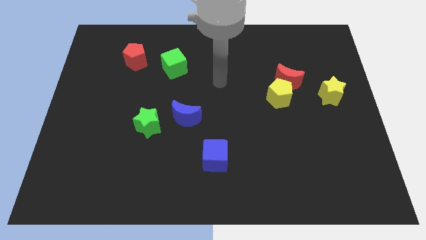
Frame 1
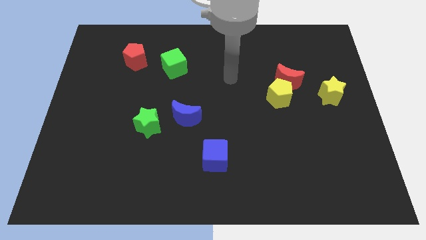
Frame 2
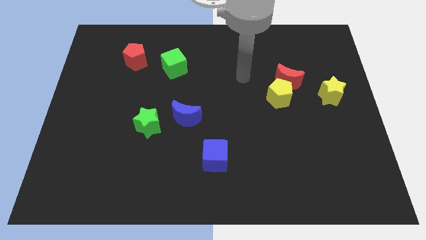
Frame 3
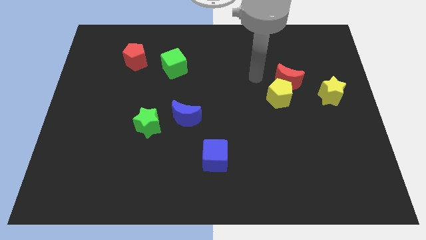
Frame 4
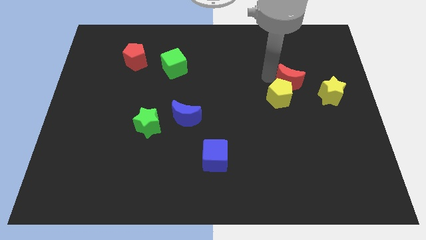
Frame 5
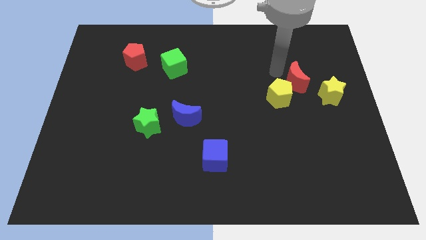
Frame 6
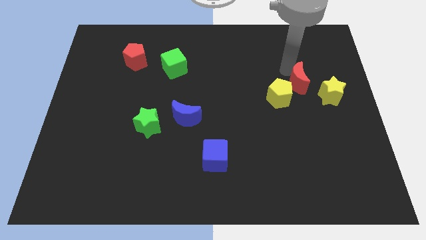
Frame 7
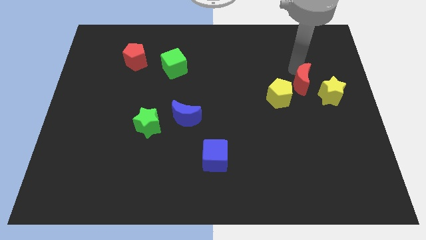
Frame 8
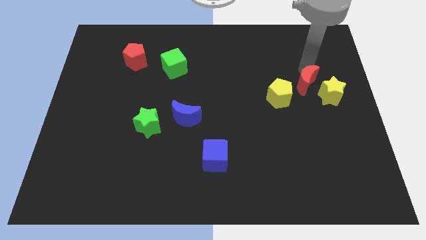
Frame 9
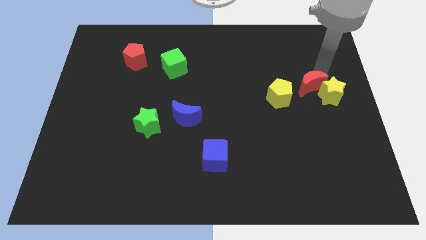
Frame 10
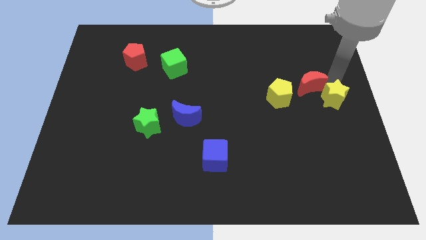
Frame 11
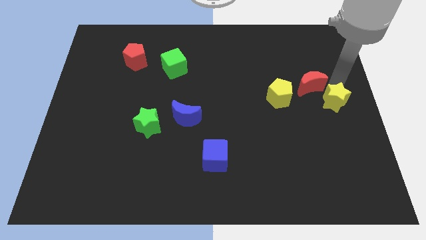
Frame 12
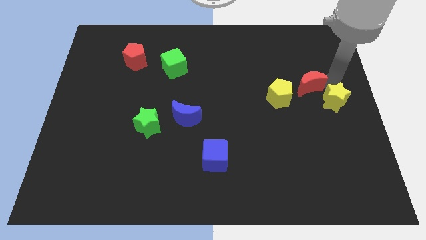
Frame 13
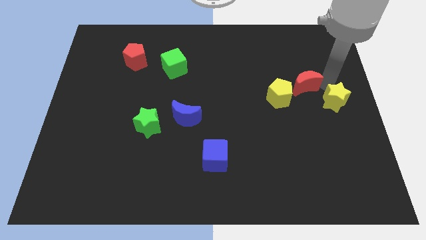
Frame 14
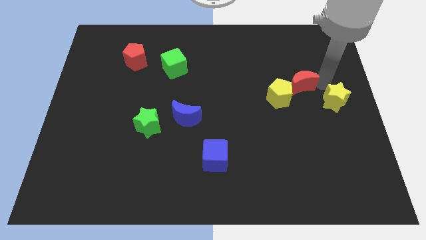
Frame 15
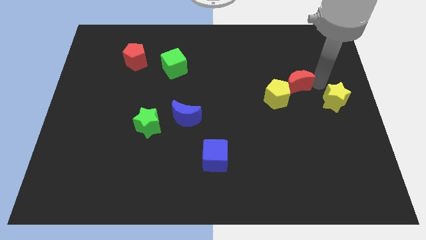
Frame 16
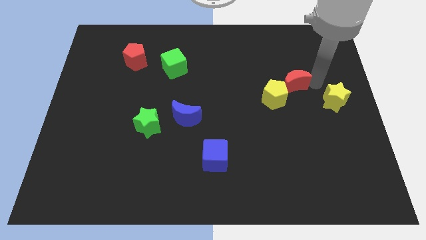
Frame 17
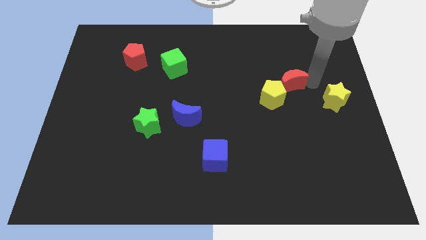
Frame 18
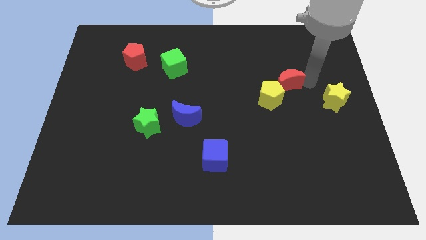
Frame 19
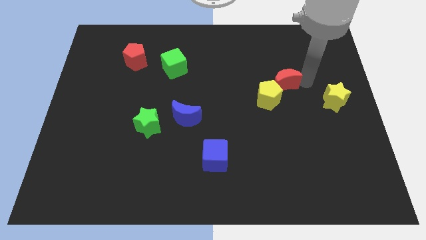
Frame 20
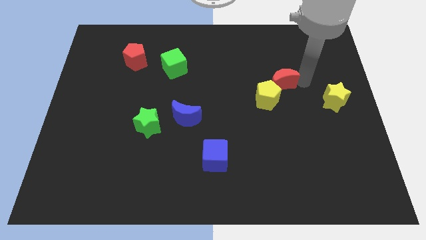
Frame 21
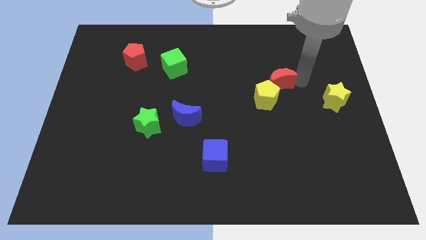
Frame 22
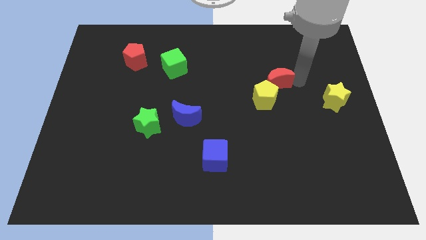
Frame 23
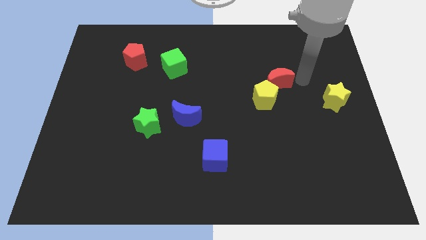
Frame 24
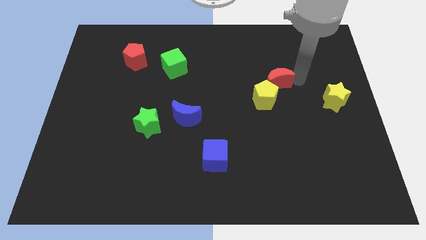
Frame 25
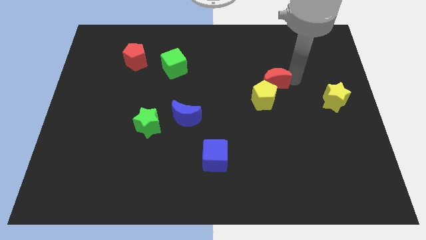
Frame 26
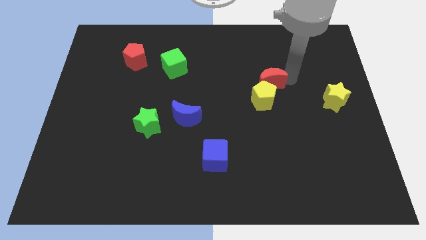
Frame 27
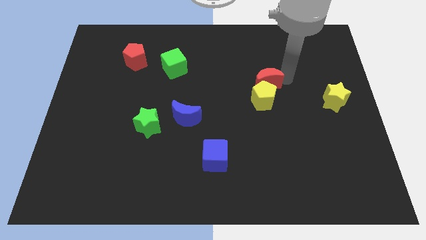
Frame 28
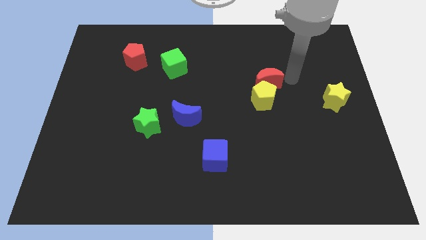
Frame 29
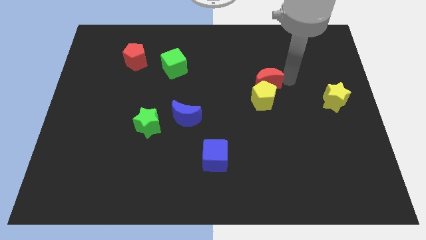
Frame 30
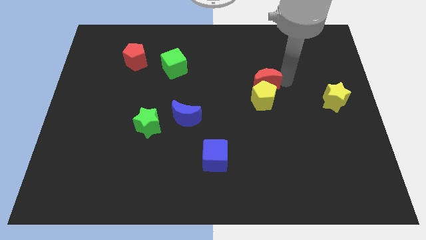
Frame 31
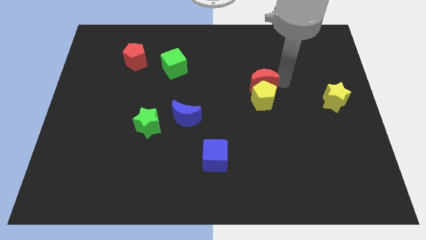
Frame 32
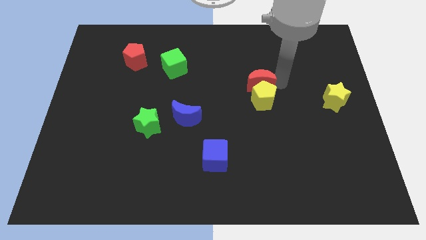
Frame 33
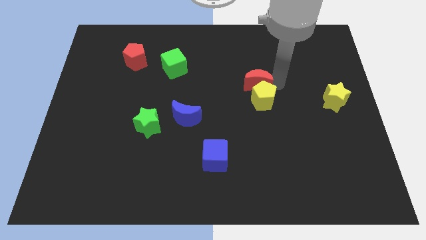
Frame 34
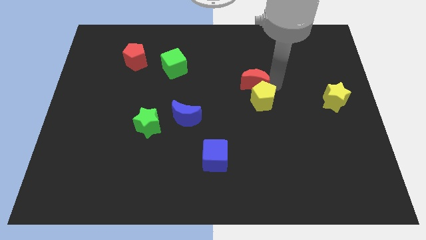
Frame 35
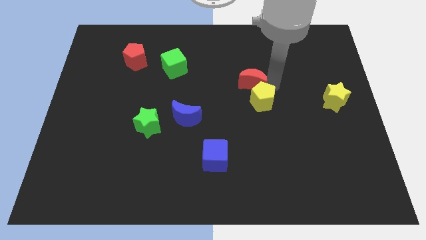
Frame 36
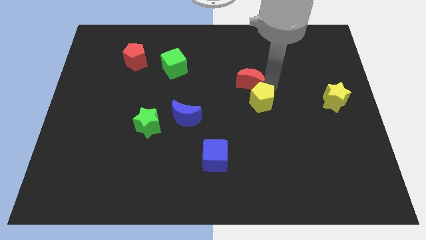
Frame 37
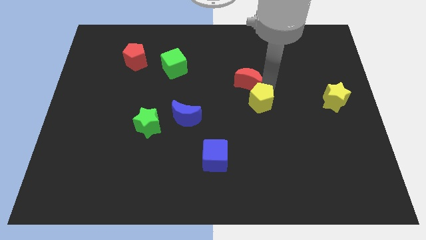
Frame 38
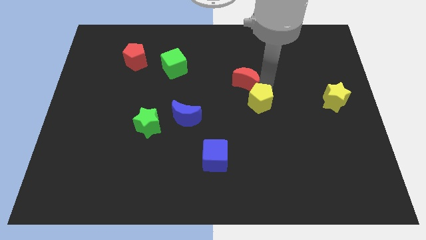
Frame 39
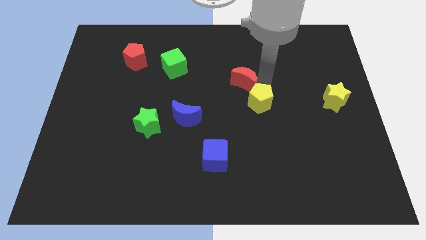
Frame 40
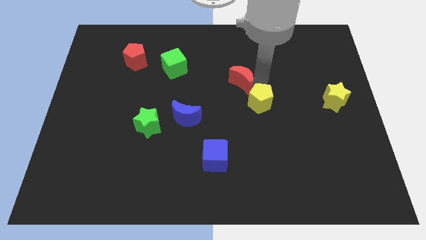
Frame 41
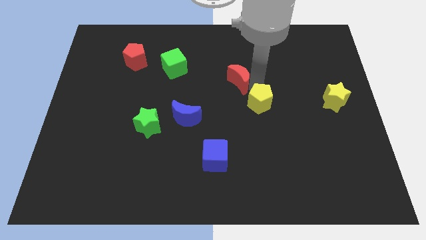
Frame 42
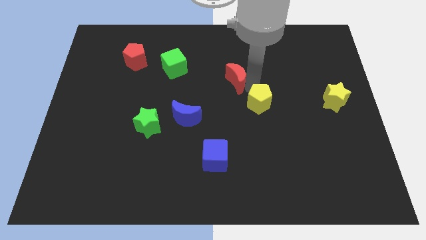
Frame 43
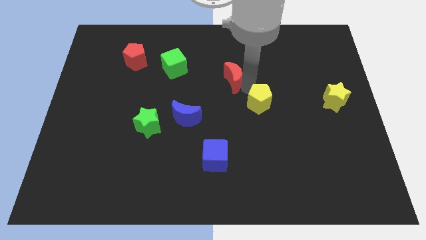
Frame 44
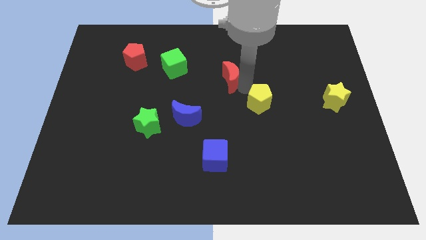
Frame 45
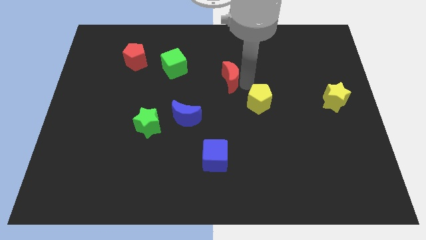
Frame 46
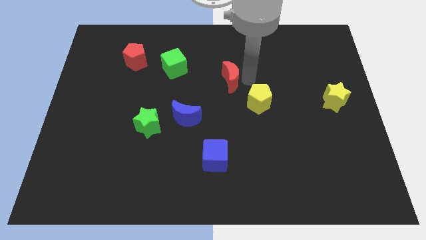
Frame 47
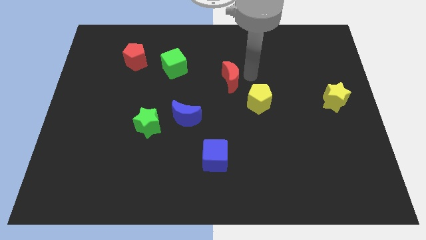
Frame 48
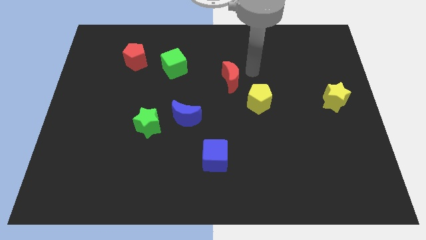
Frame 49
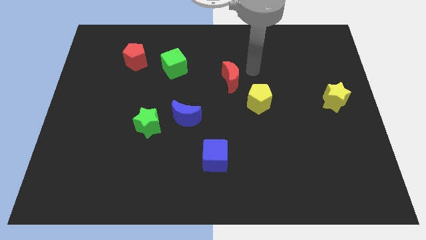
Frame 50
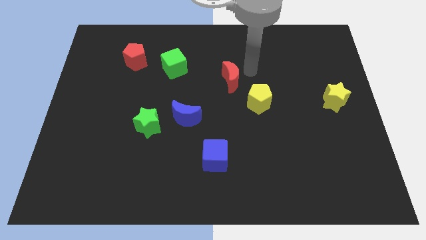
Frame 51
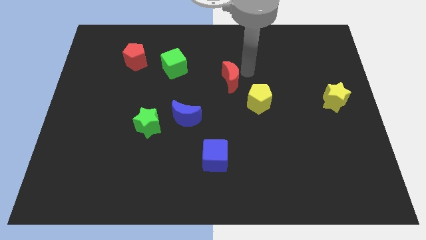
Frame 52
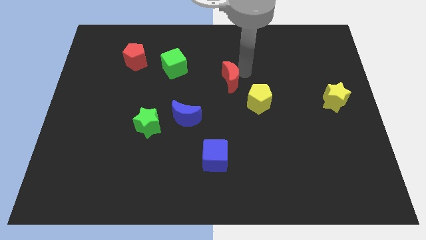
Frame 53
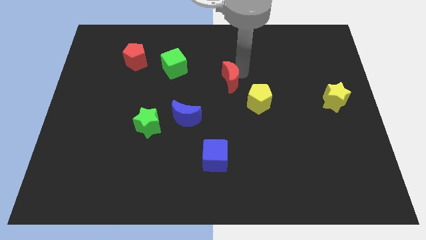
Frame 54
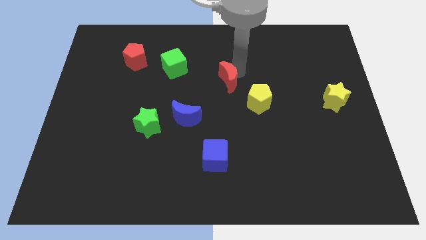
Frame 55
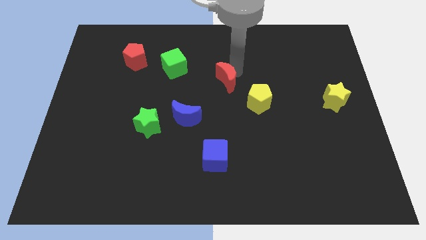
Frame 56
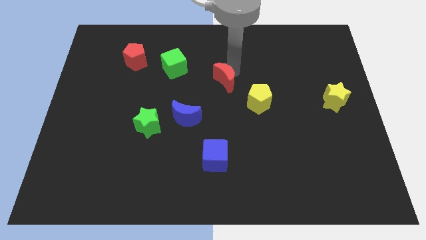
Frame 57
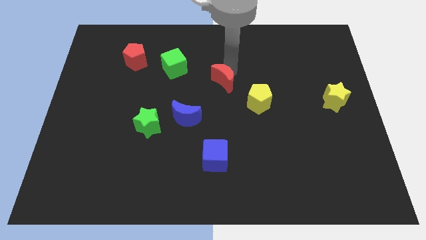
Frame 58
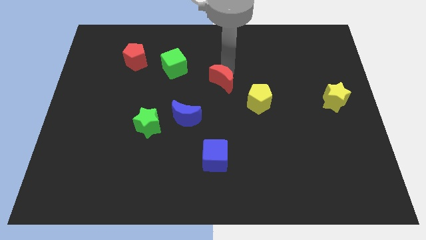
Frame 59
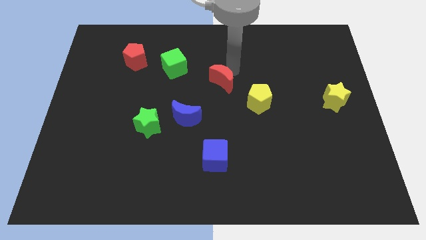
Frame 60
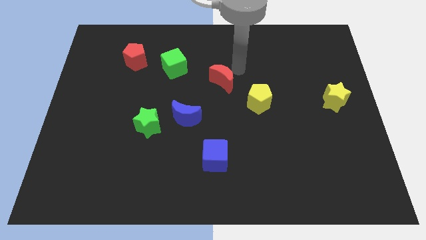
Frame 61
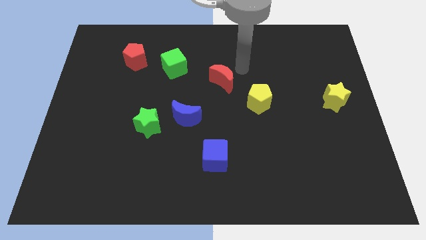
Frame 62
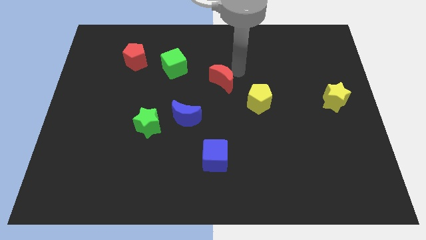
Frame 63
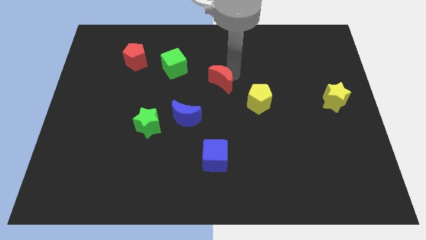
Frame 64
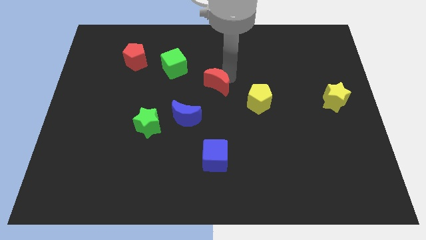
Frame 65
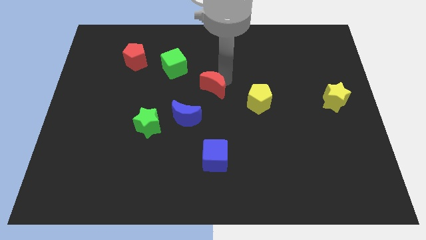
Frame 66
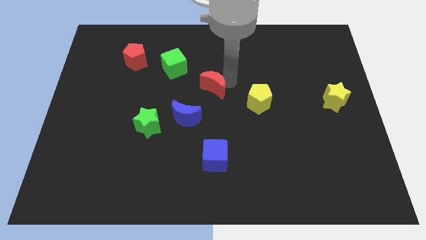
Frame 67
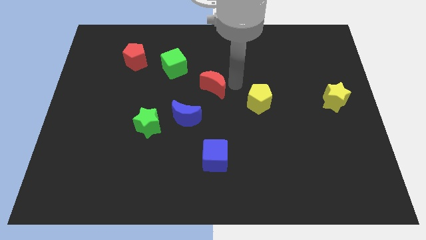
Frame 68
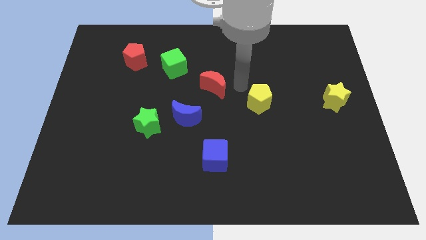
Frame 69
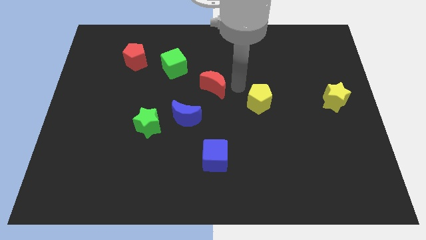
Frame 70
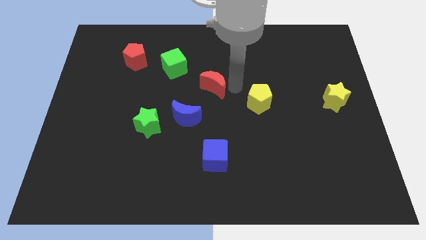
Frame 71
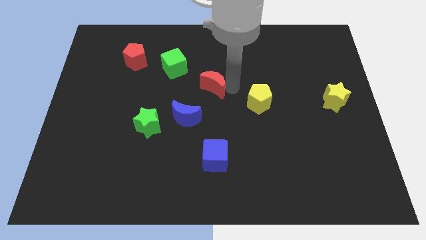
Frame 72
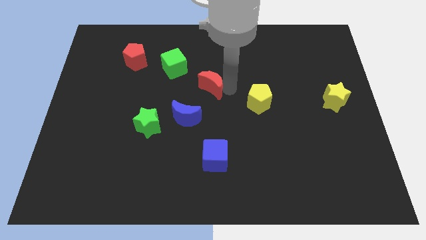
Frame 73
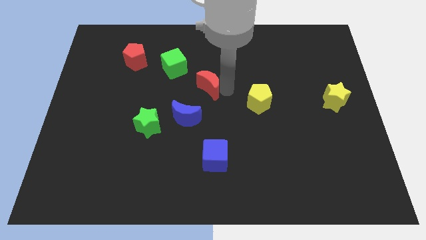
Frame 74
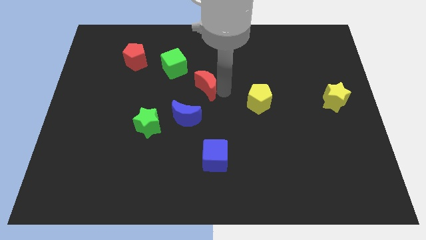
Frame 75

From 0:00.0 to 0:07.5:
push the red moon to the left

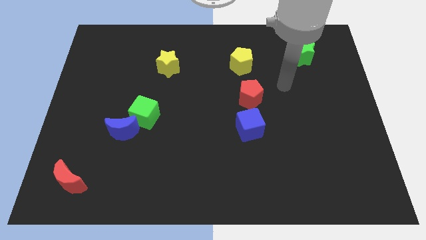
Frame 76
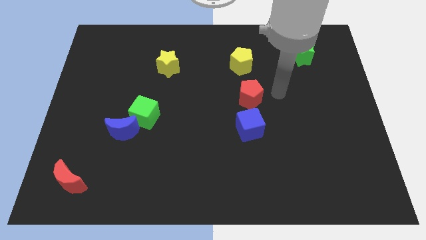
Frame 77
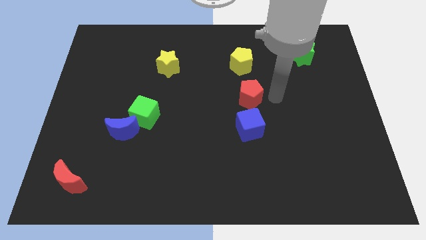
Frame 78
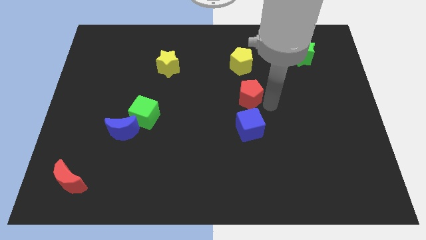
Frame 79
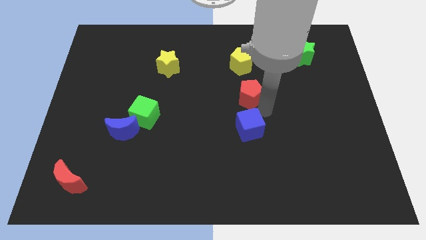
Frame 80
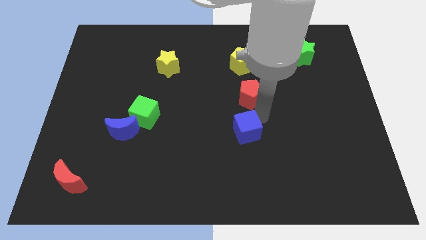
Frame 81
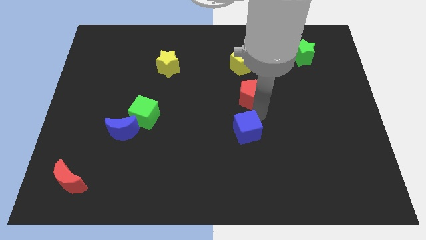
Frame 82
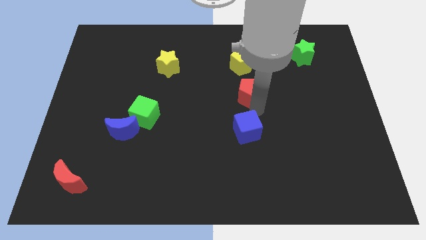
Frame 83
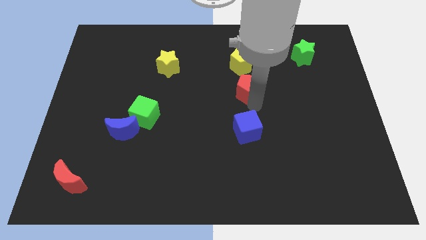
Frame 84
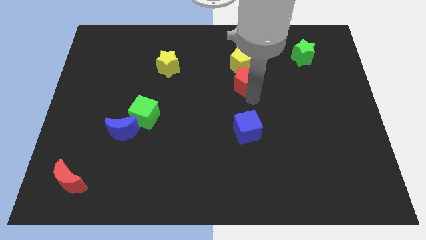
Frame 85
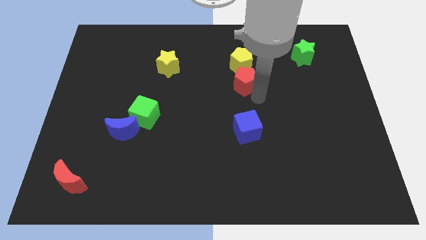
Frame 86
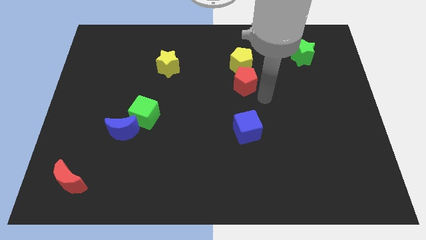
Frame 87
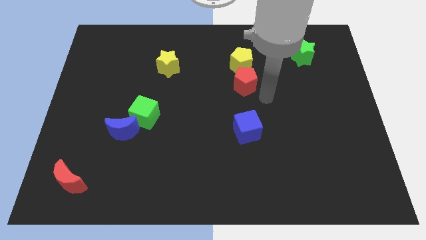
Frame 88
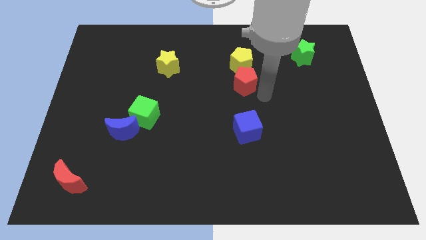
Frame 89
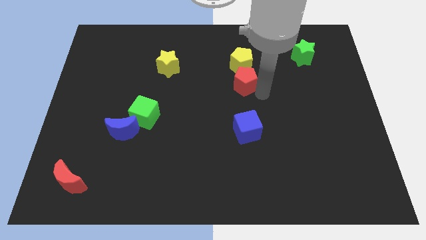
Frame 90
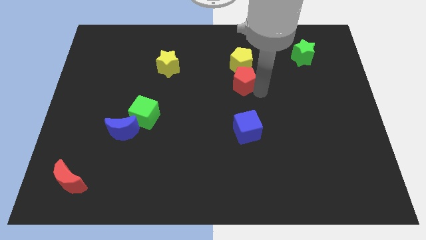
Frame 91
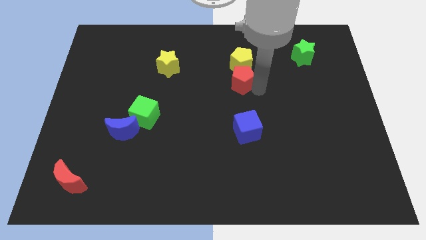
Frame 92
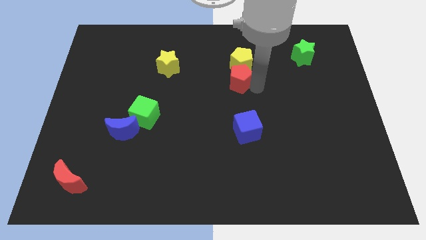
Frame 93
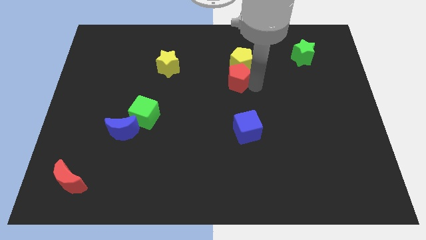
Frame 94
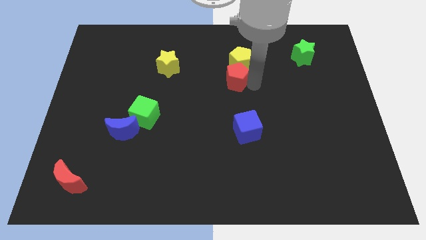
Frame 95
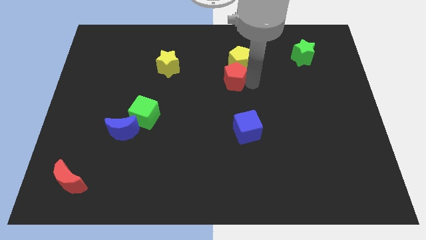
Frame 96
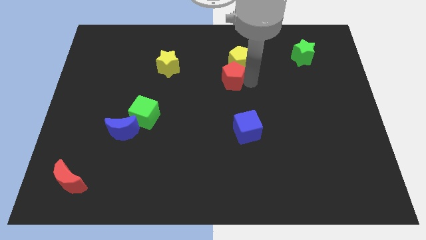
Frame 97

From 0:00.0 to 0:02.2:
push the red pentagon diagonally up and to the left a bit
